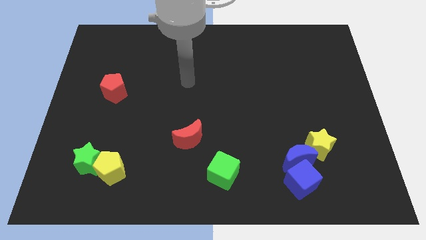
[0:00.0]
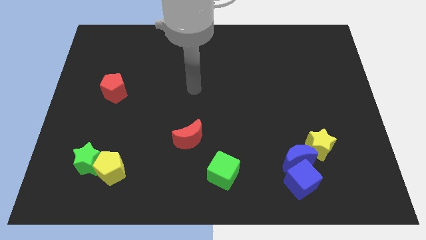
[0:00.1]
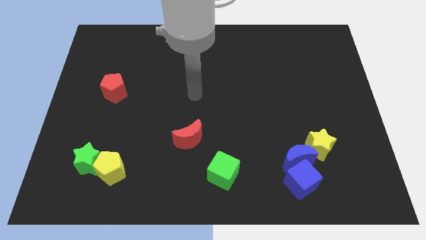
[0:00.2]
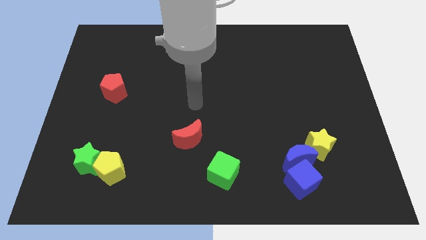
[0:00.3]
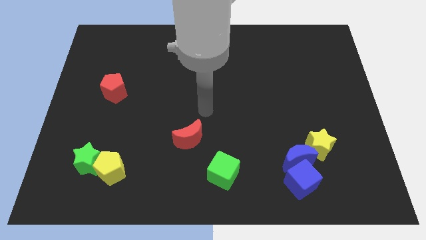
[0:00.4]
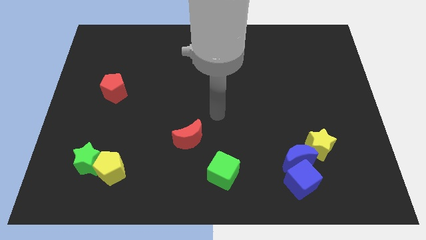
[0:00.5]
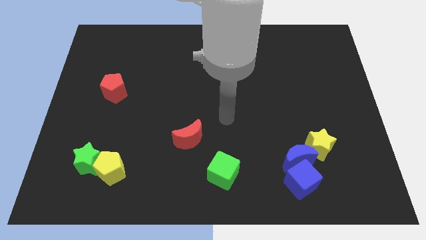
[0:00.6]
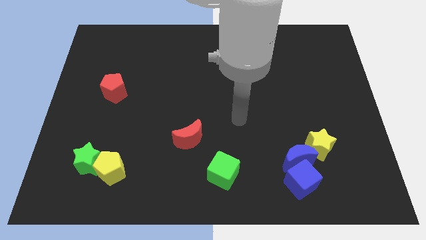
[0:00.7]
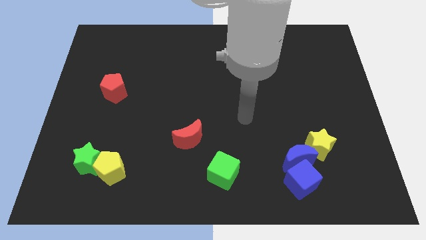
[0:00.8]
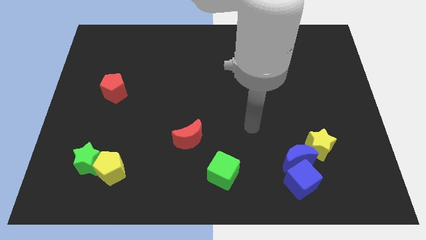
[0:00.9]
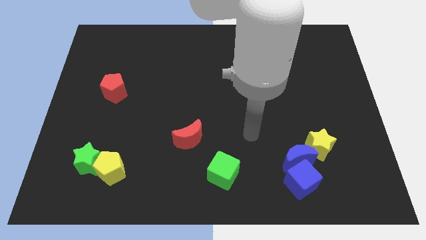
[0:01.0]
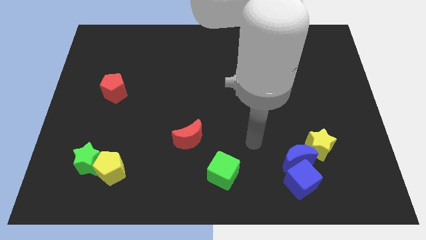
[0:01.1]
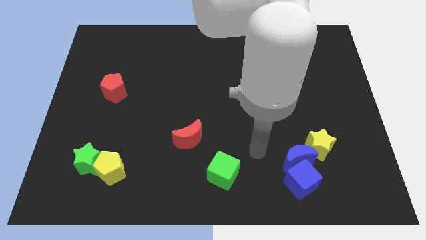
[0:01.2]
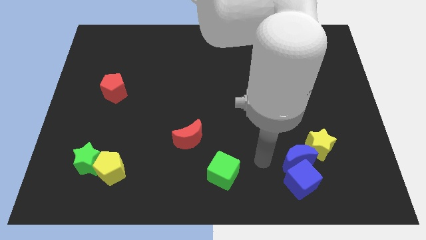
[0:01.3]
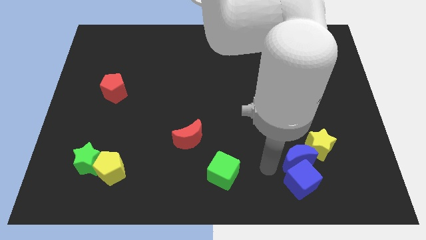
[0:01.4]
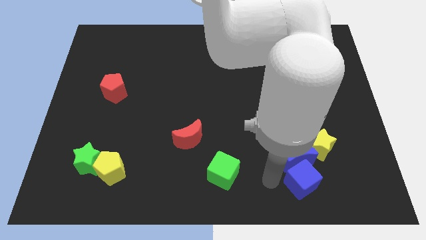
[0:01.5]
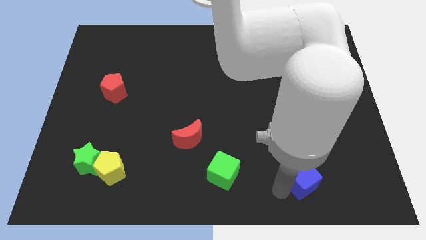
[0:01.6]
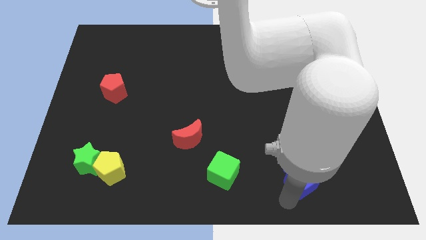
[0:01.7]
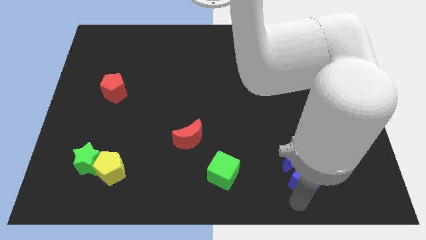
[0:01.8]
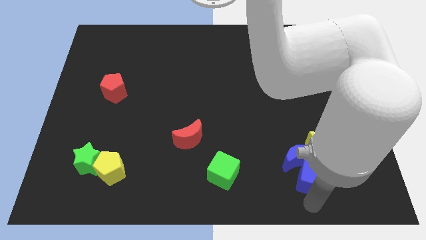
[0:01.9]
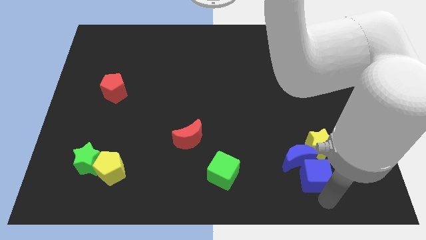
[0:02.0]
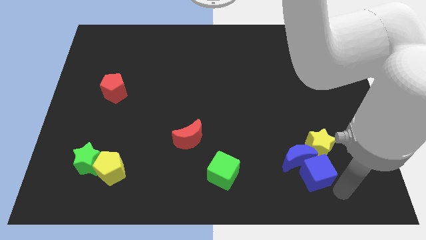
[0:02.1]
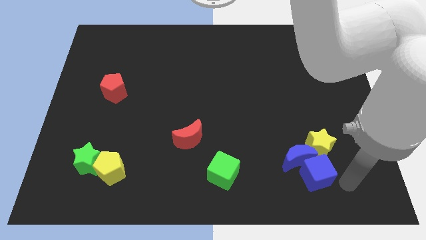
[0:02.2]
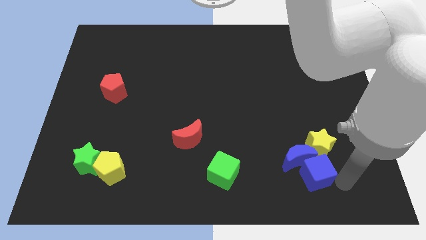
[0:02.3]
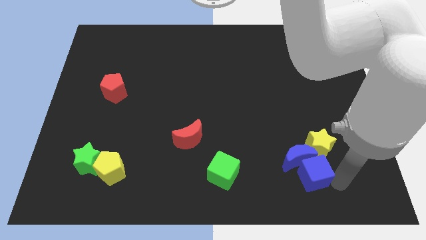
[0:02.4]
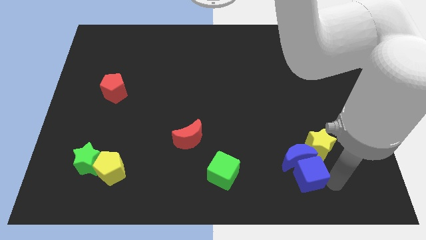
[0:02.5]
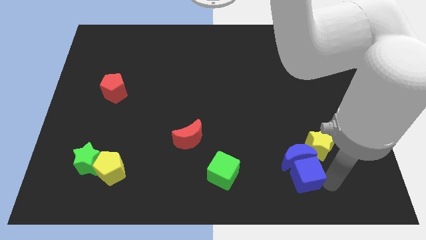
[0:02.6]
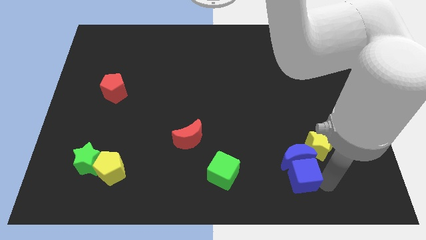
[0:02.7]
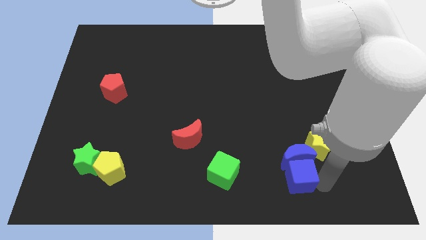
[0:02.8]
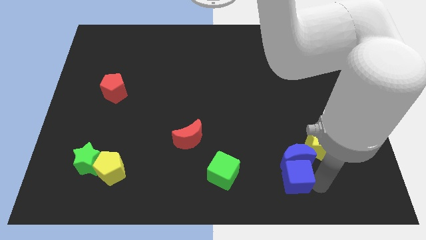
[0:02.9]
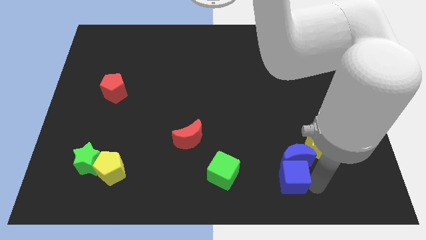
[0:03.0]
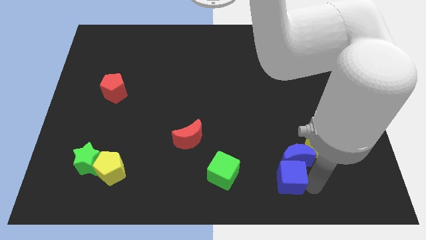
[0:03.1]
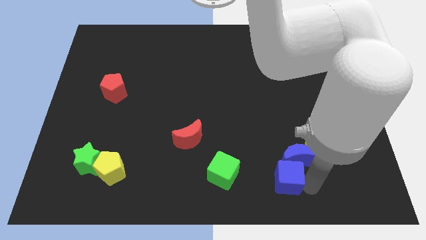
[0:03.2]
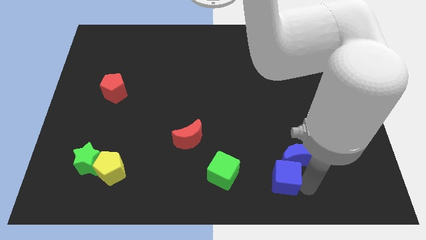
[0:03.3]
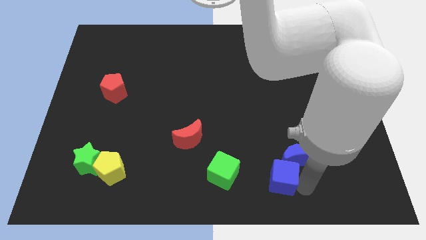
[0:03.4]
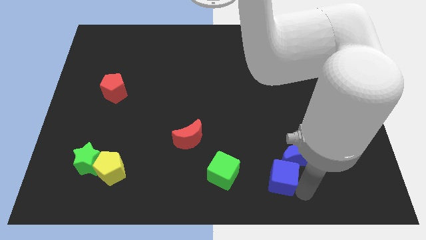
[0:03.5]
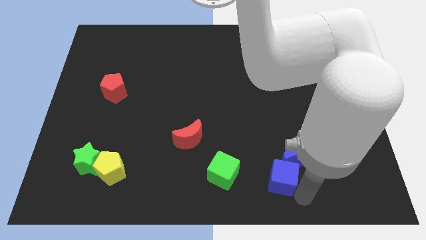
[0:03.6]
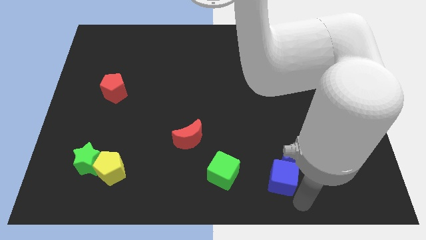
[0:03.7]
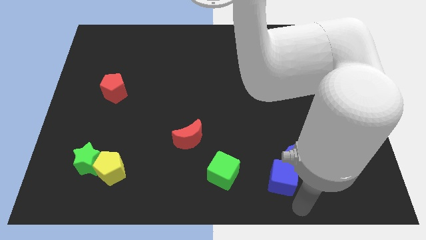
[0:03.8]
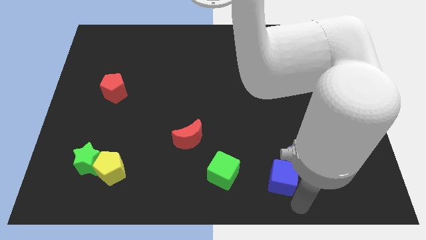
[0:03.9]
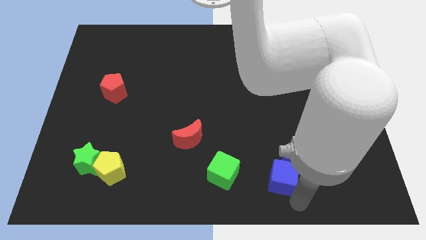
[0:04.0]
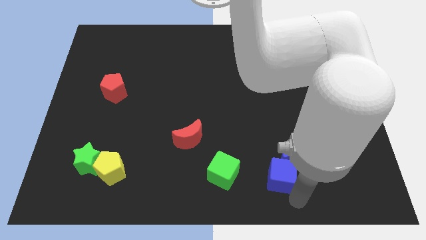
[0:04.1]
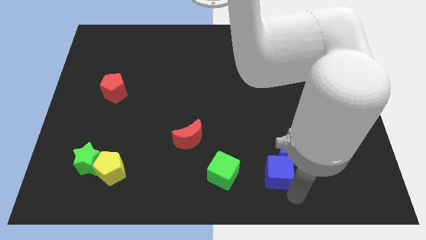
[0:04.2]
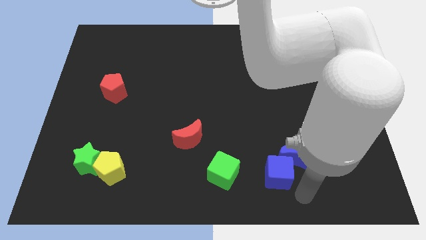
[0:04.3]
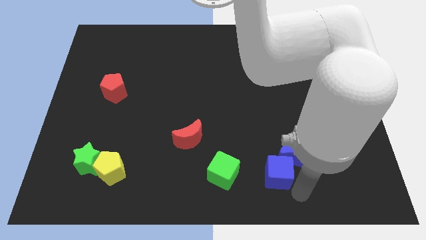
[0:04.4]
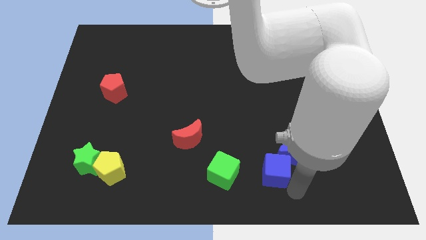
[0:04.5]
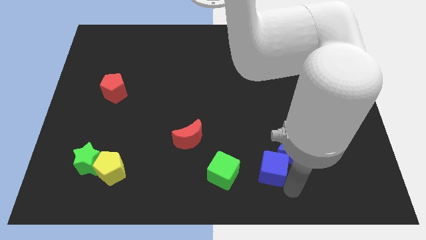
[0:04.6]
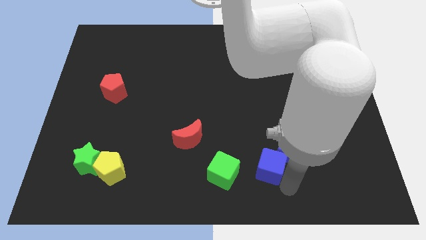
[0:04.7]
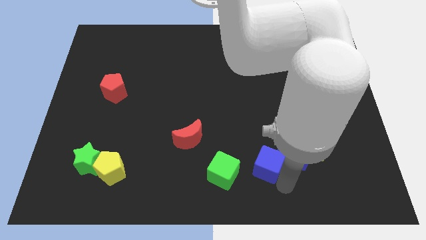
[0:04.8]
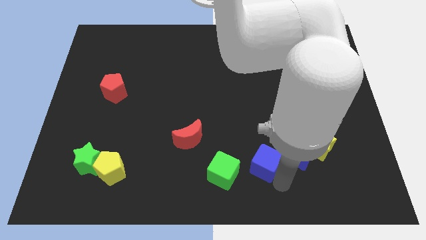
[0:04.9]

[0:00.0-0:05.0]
slide the blue cube diagonally up and to the right of the green cube

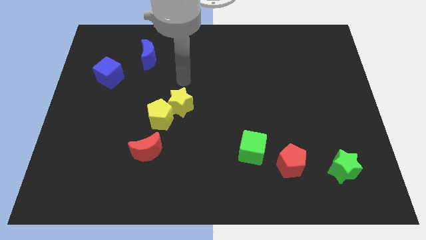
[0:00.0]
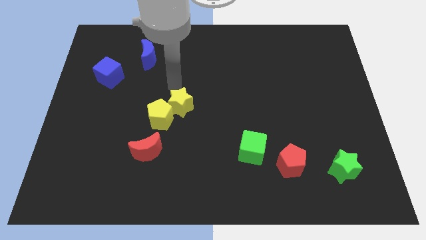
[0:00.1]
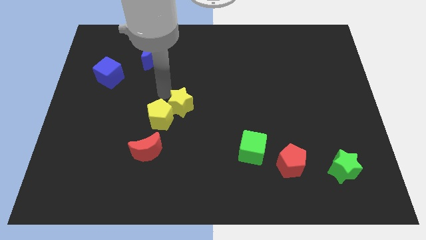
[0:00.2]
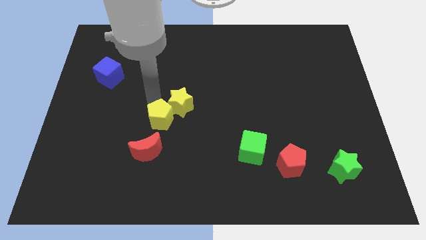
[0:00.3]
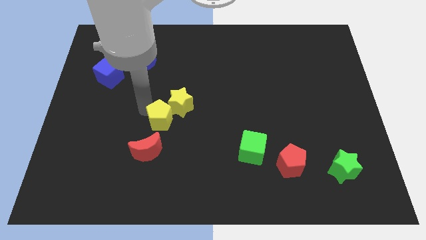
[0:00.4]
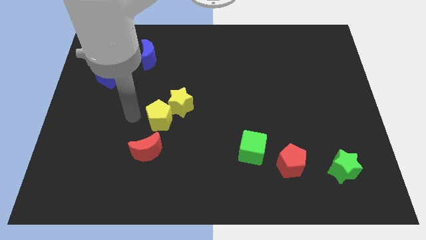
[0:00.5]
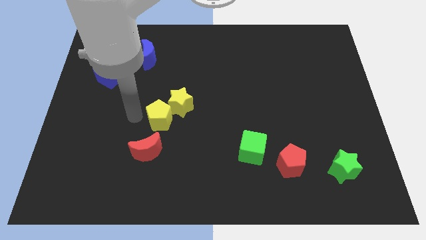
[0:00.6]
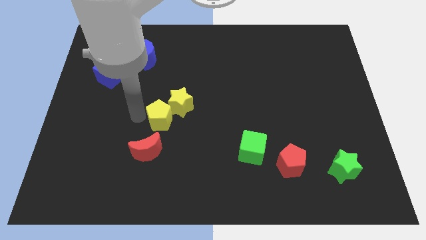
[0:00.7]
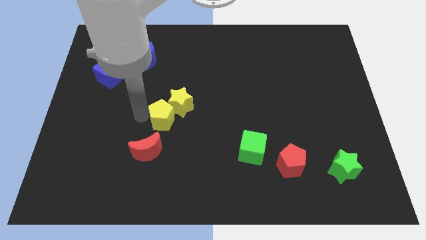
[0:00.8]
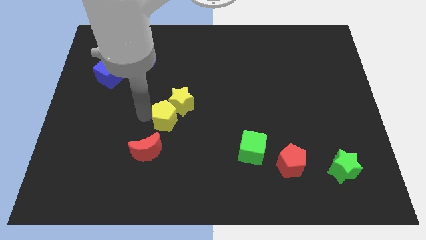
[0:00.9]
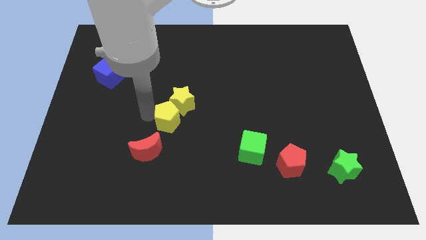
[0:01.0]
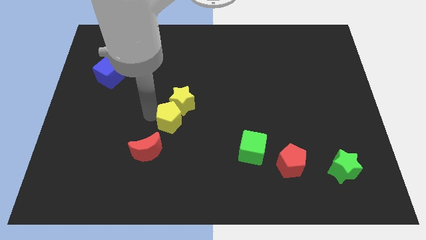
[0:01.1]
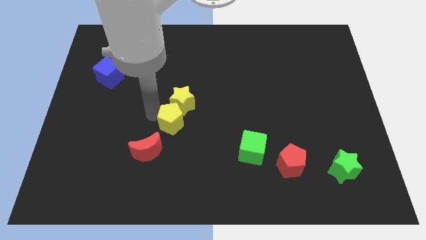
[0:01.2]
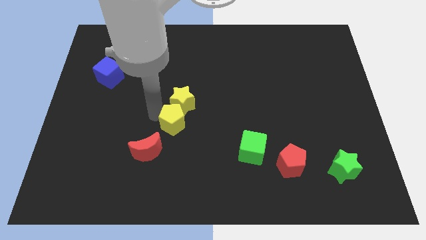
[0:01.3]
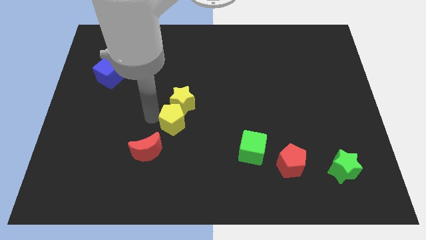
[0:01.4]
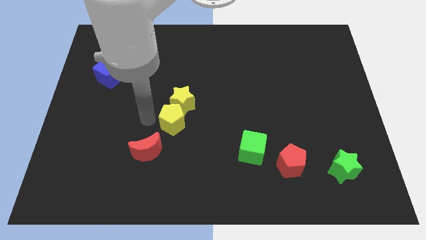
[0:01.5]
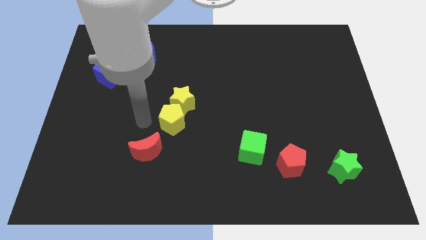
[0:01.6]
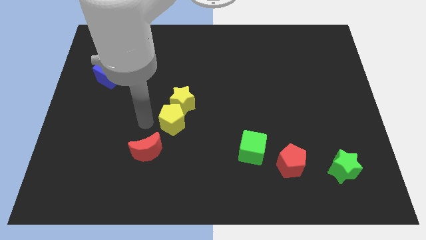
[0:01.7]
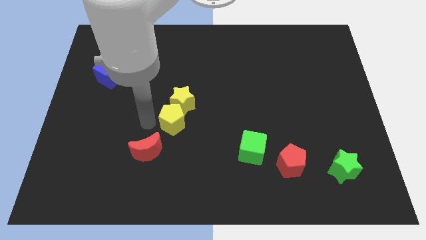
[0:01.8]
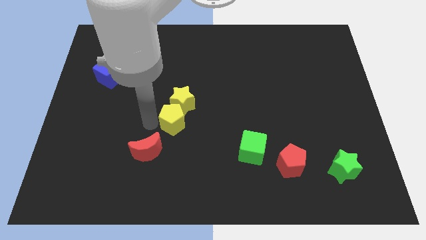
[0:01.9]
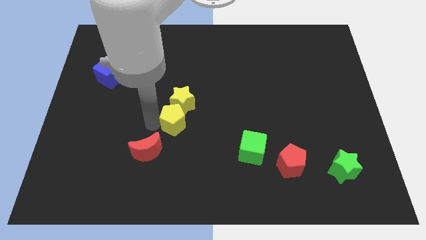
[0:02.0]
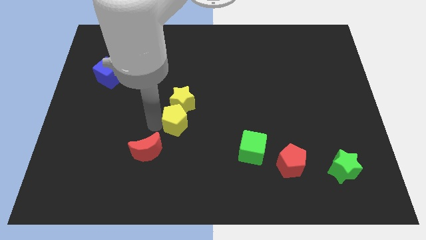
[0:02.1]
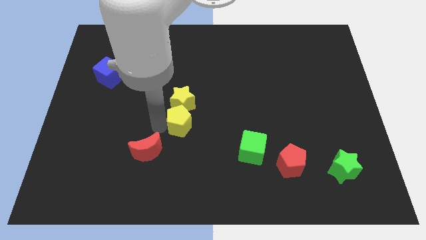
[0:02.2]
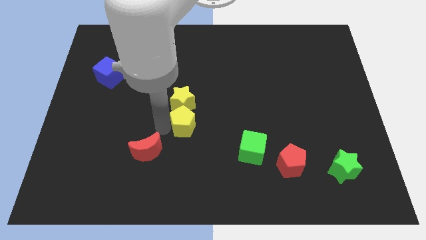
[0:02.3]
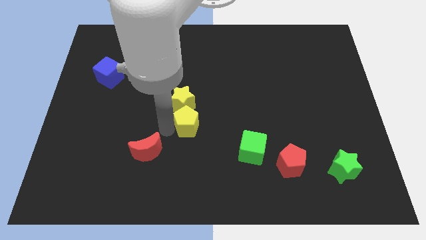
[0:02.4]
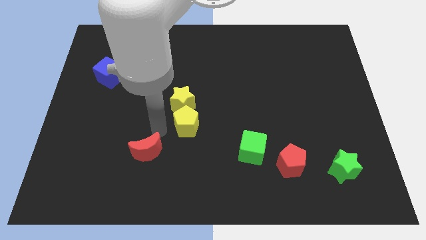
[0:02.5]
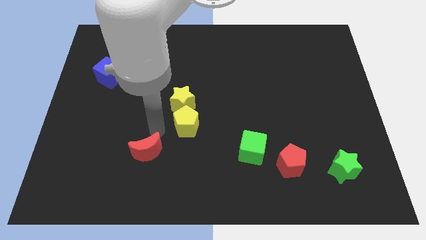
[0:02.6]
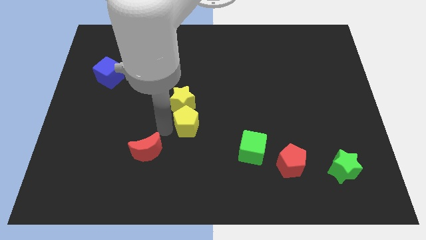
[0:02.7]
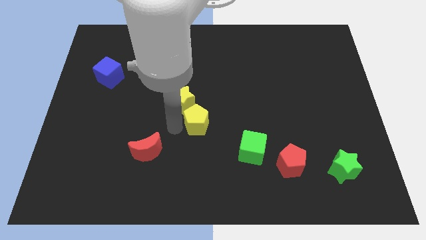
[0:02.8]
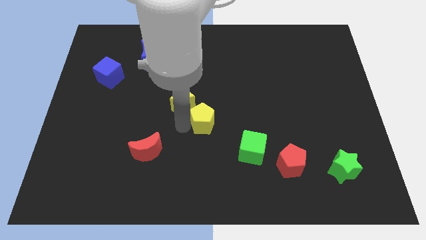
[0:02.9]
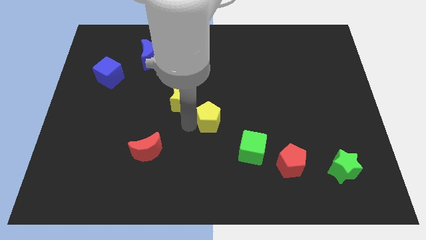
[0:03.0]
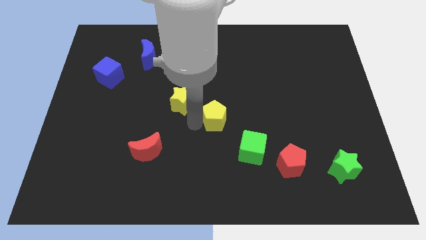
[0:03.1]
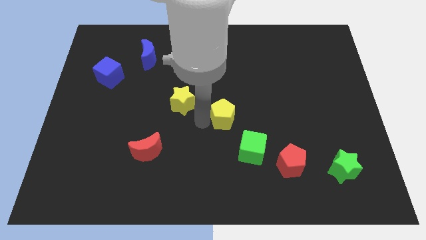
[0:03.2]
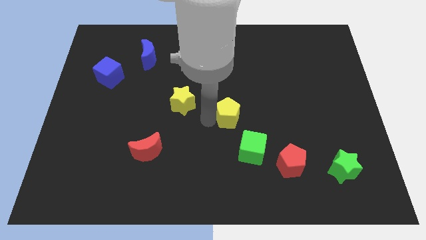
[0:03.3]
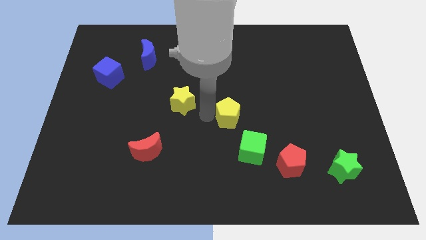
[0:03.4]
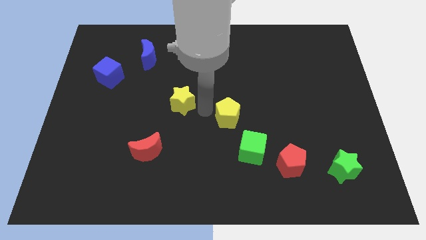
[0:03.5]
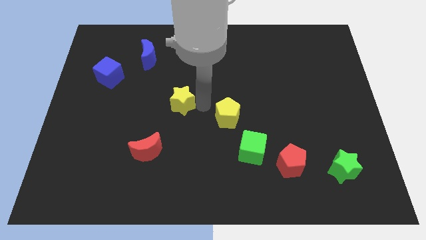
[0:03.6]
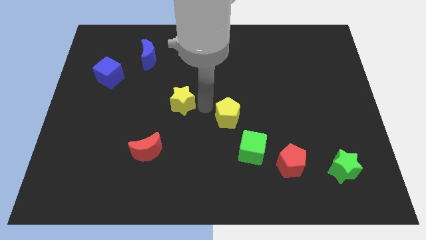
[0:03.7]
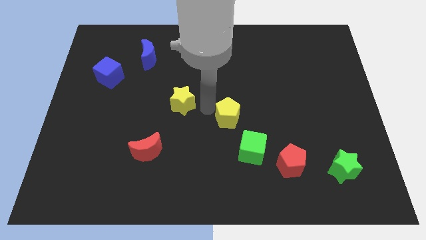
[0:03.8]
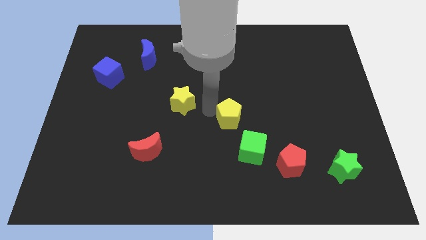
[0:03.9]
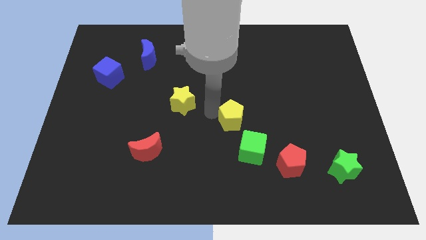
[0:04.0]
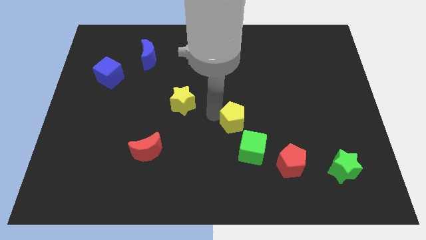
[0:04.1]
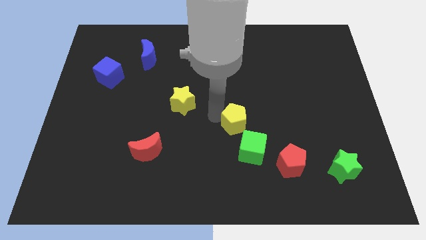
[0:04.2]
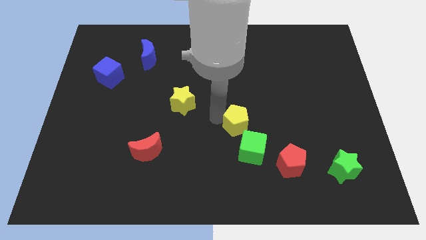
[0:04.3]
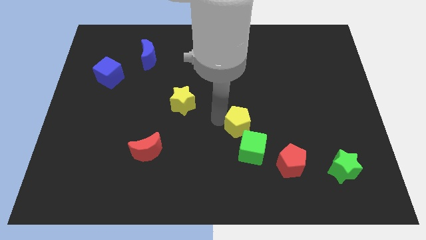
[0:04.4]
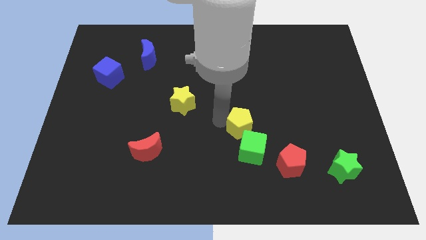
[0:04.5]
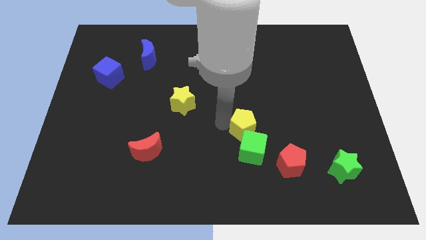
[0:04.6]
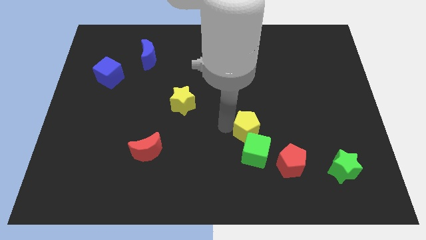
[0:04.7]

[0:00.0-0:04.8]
slide the yellow pentagon diagonally up and to the left of the red pentagon
